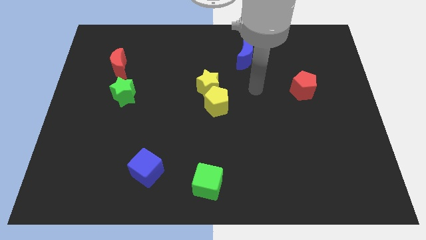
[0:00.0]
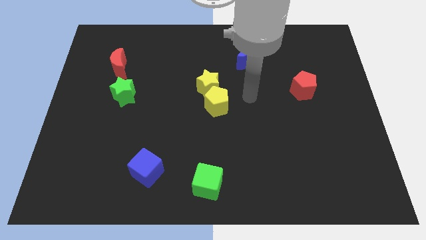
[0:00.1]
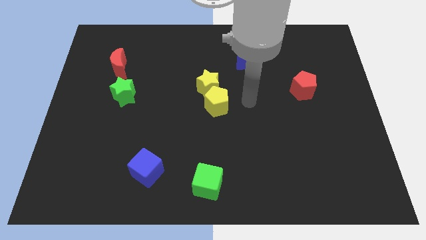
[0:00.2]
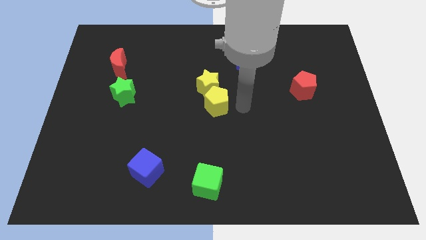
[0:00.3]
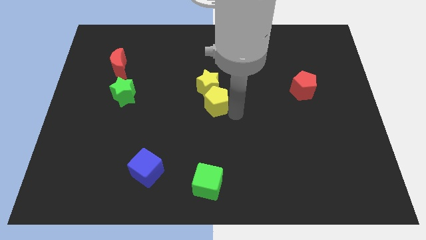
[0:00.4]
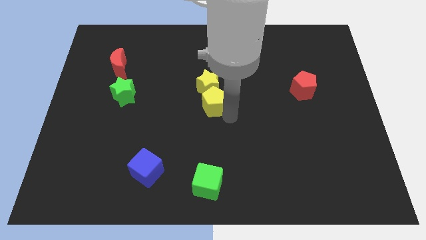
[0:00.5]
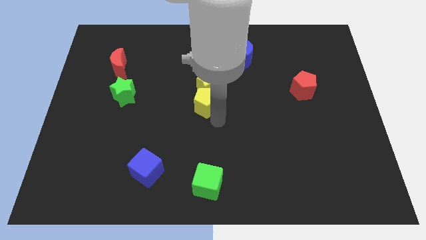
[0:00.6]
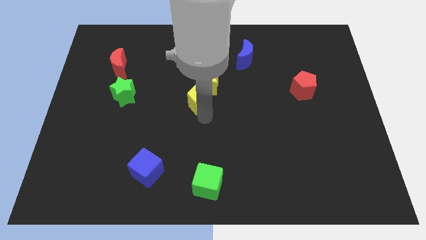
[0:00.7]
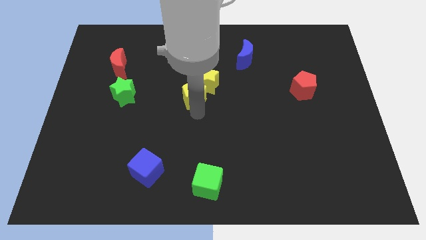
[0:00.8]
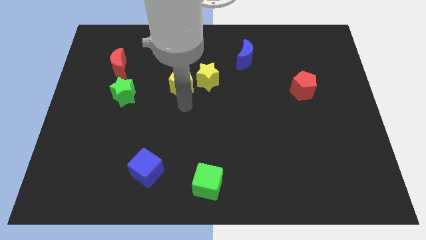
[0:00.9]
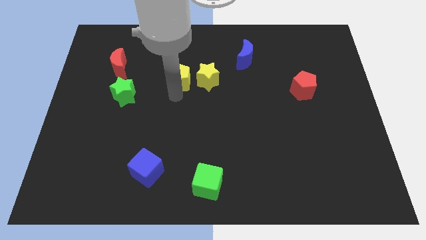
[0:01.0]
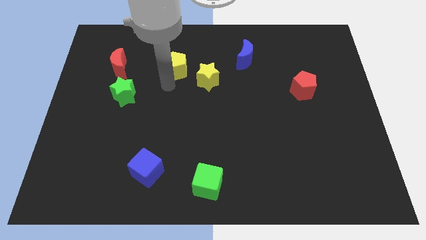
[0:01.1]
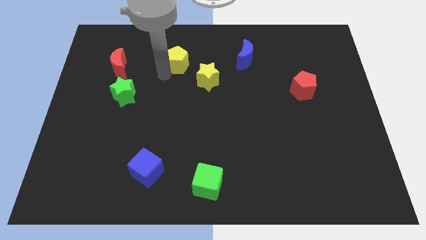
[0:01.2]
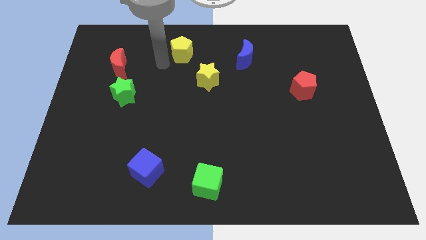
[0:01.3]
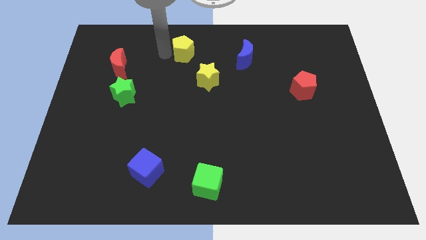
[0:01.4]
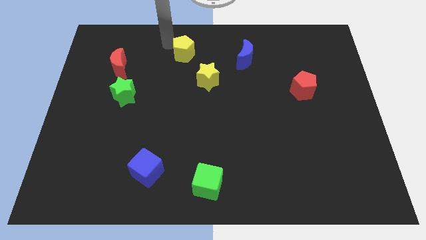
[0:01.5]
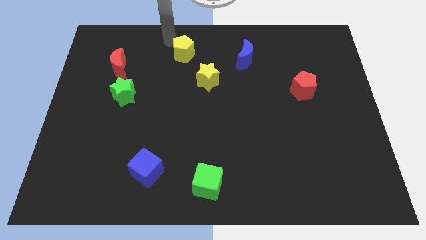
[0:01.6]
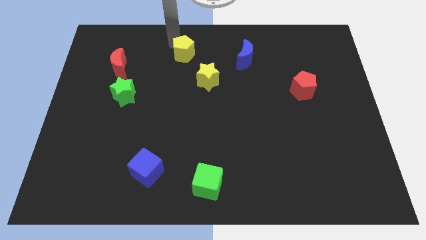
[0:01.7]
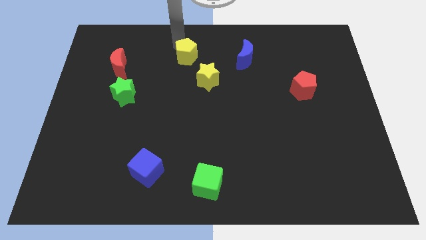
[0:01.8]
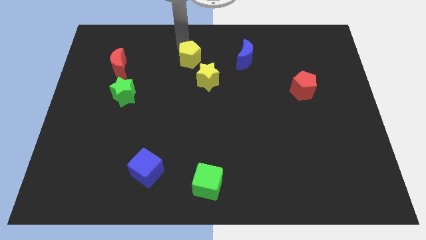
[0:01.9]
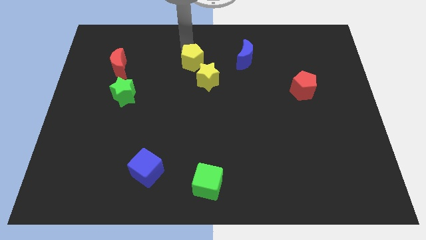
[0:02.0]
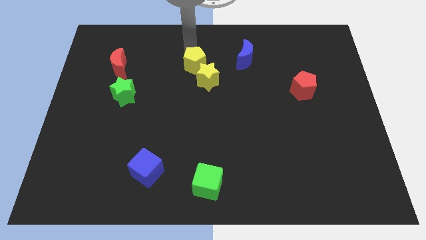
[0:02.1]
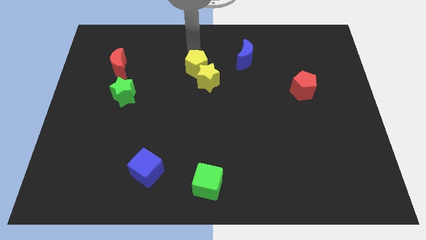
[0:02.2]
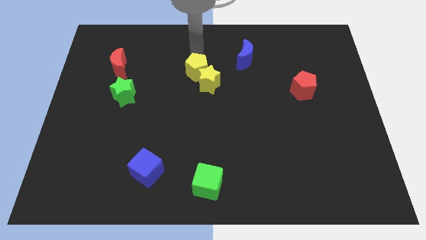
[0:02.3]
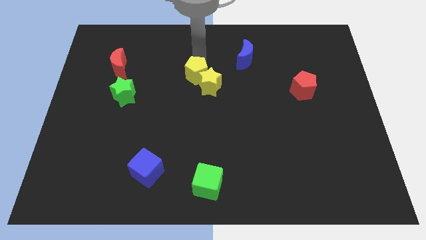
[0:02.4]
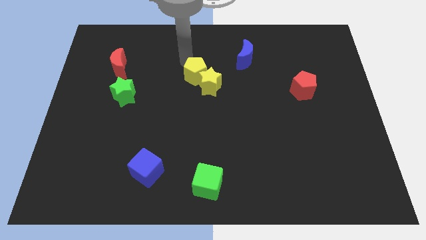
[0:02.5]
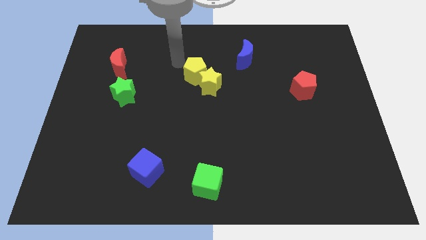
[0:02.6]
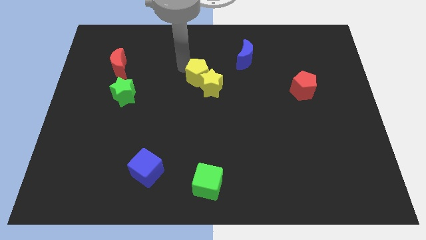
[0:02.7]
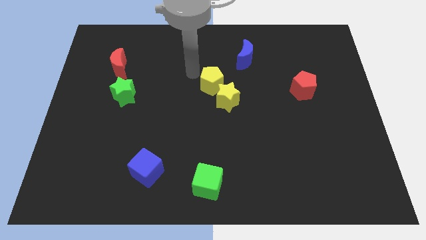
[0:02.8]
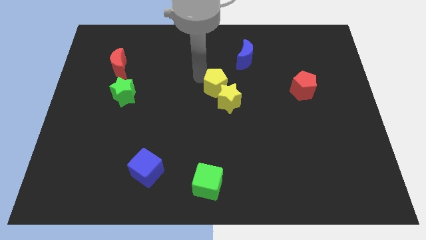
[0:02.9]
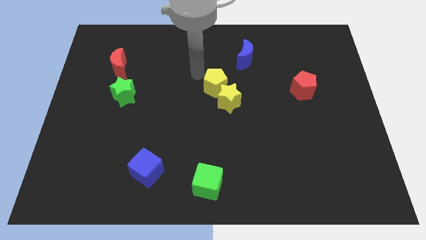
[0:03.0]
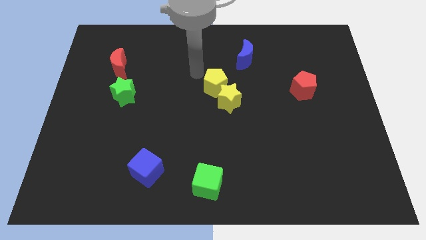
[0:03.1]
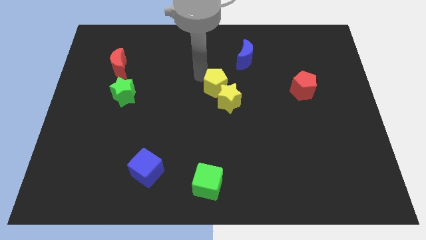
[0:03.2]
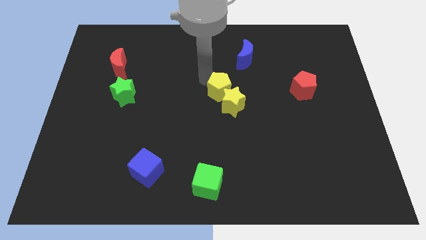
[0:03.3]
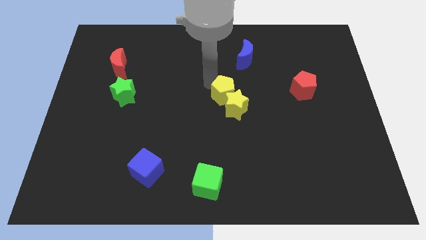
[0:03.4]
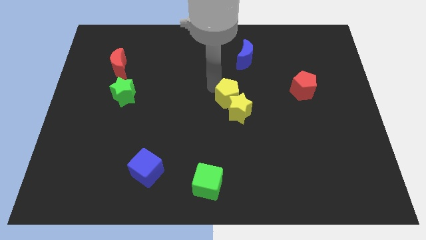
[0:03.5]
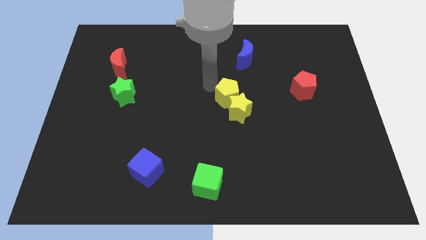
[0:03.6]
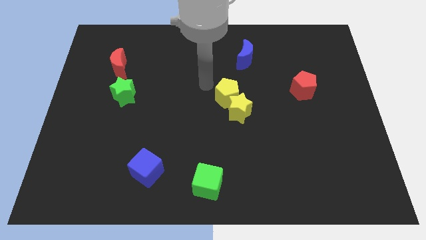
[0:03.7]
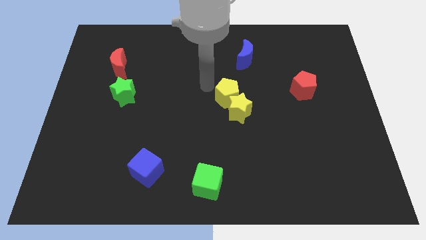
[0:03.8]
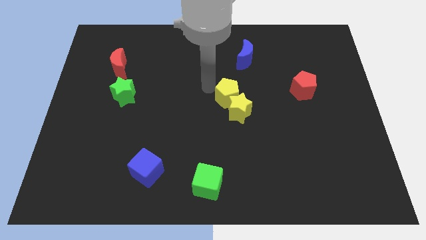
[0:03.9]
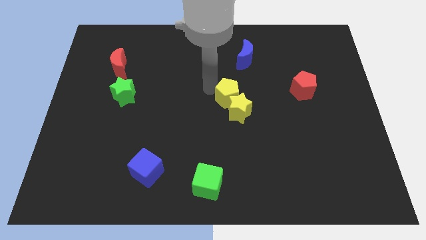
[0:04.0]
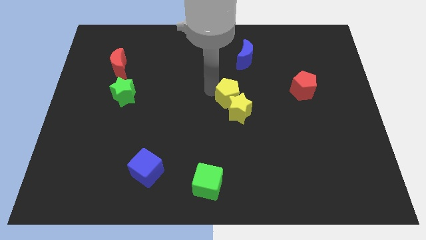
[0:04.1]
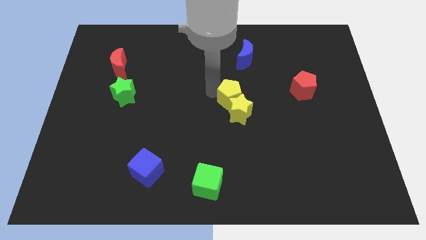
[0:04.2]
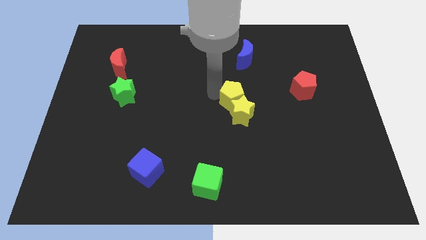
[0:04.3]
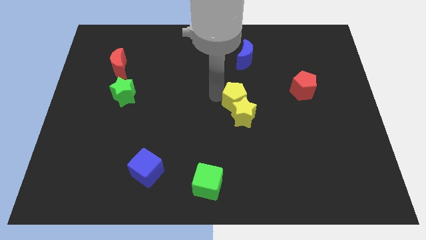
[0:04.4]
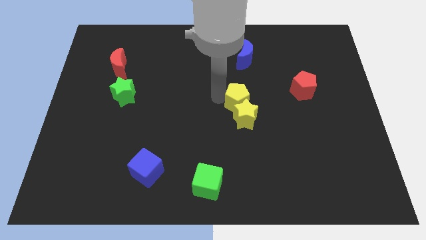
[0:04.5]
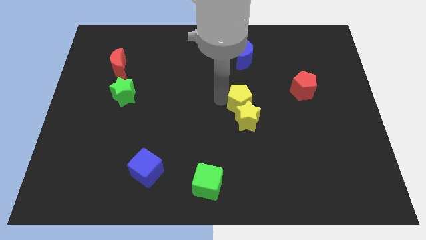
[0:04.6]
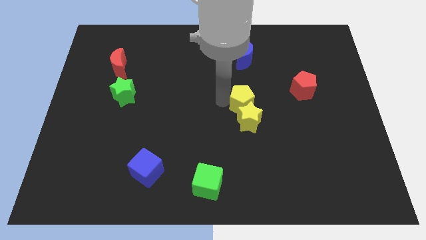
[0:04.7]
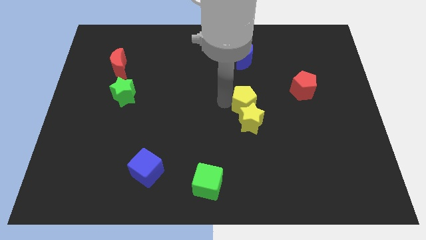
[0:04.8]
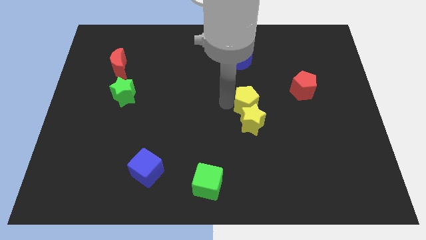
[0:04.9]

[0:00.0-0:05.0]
slide the yellow pentagon right a little bit

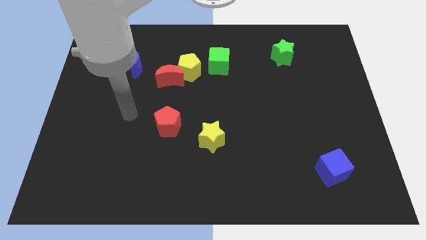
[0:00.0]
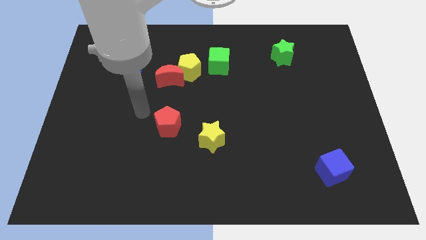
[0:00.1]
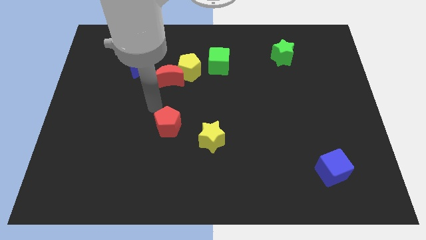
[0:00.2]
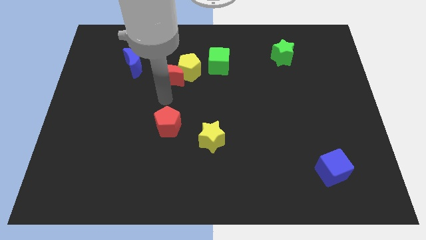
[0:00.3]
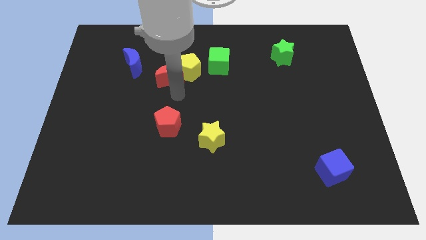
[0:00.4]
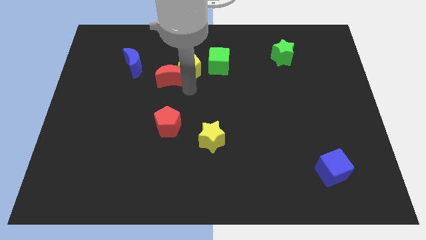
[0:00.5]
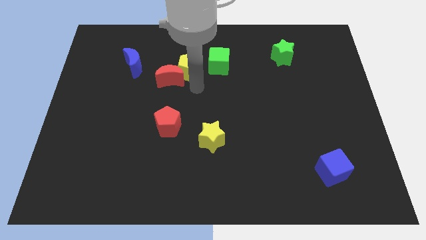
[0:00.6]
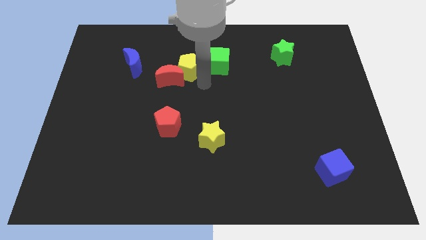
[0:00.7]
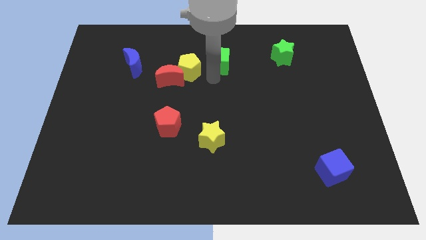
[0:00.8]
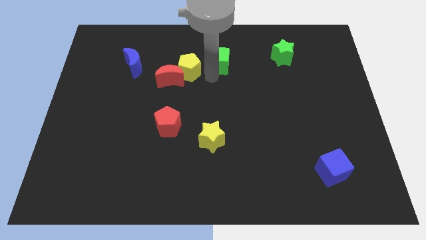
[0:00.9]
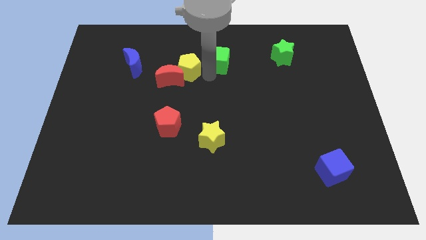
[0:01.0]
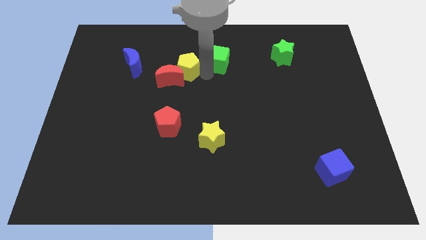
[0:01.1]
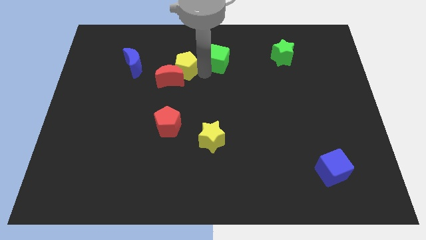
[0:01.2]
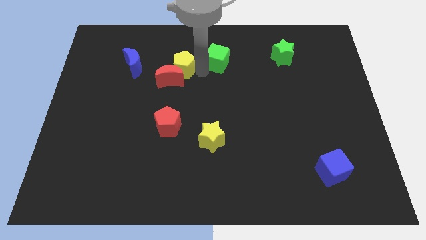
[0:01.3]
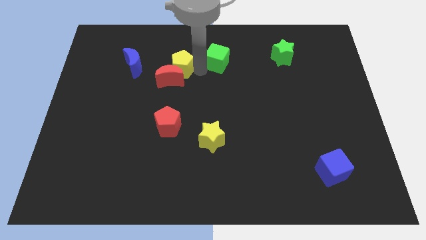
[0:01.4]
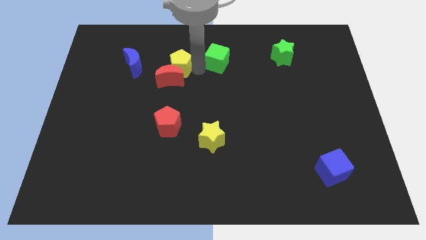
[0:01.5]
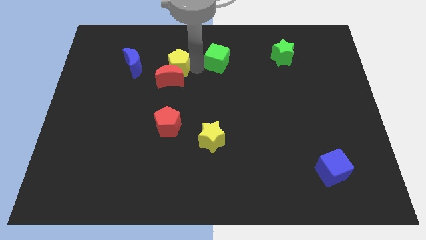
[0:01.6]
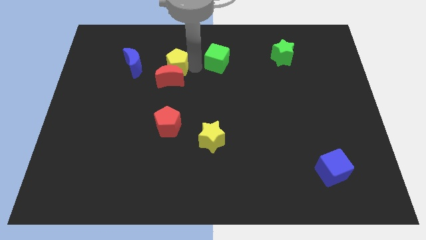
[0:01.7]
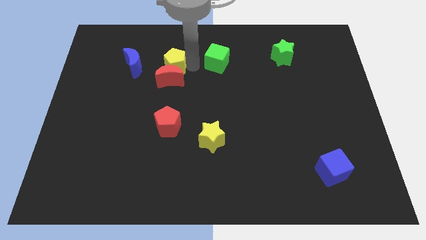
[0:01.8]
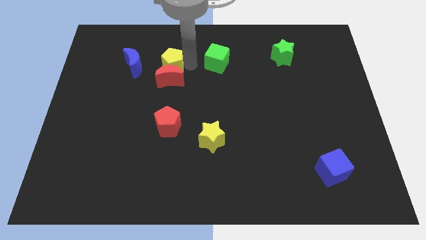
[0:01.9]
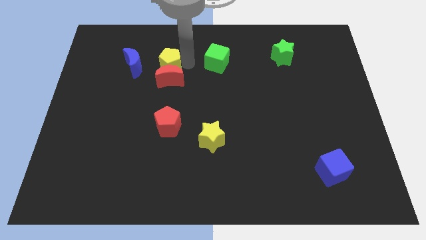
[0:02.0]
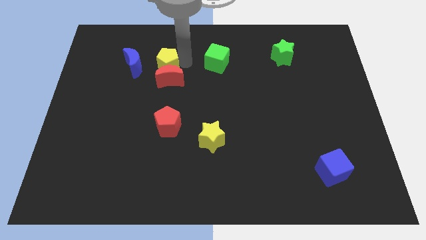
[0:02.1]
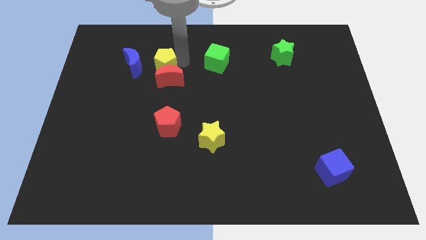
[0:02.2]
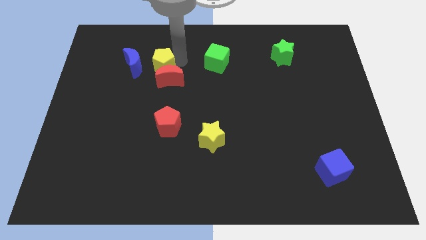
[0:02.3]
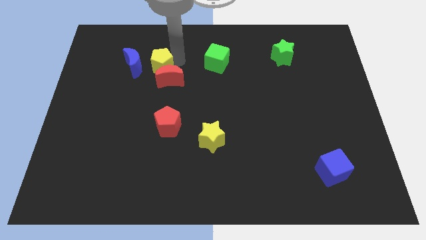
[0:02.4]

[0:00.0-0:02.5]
slightly slide the yellow pentagon left

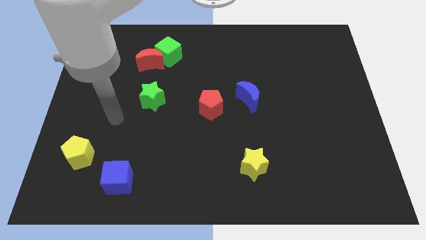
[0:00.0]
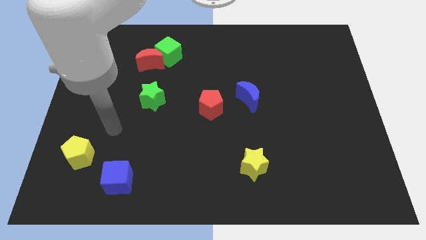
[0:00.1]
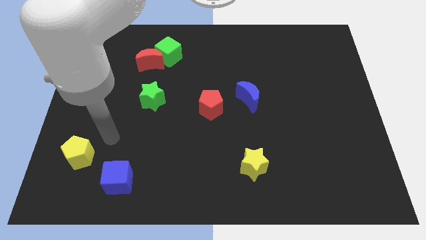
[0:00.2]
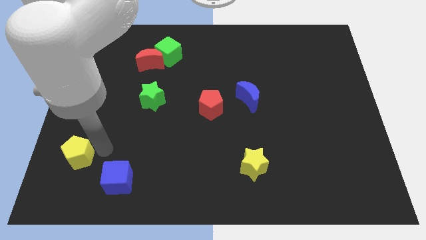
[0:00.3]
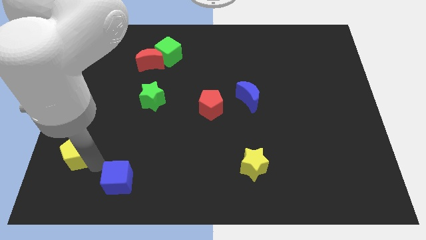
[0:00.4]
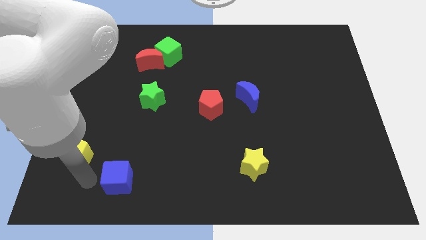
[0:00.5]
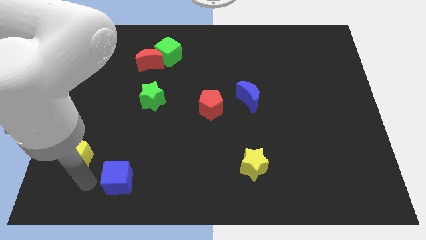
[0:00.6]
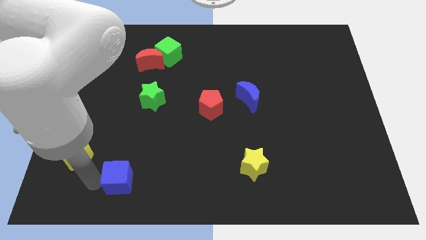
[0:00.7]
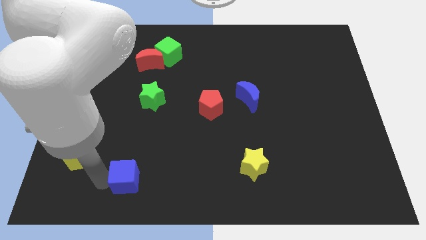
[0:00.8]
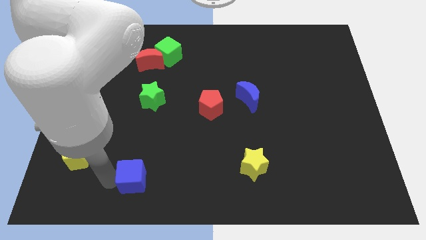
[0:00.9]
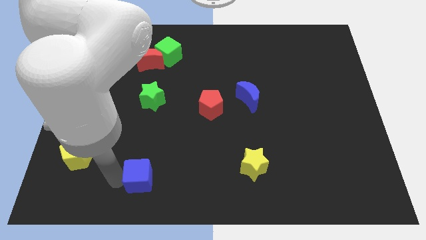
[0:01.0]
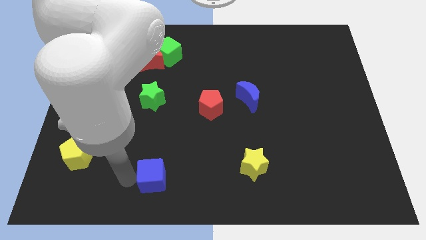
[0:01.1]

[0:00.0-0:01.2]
slightly slide the blue cube to the right
